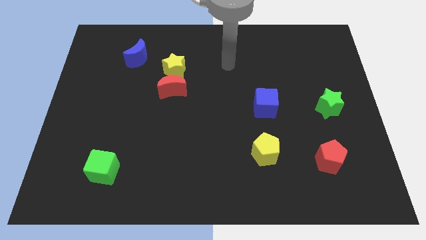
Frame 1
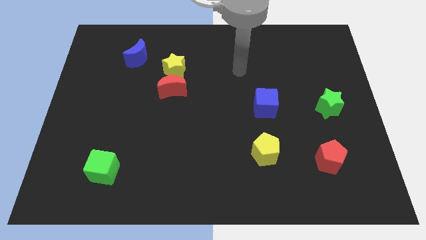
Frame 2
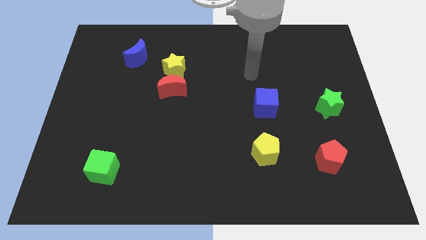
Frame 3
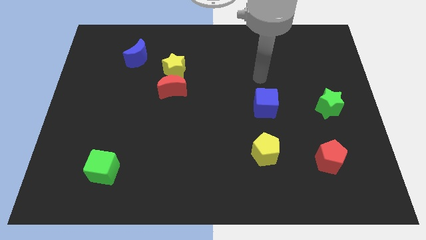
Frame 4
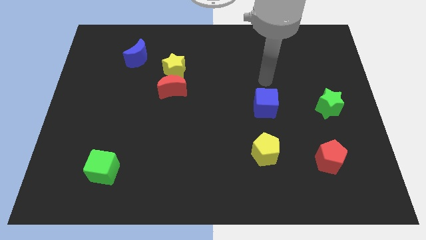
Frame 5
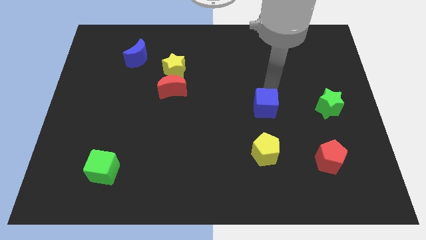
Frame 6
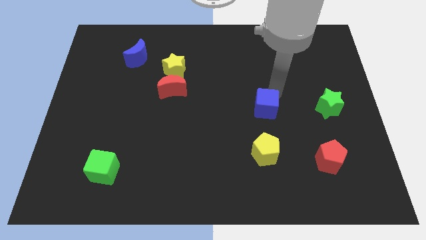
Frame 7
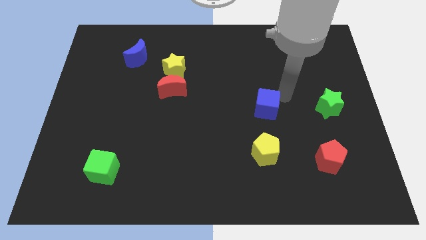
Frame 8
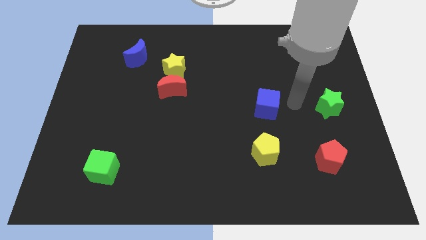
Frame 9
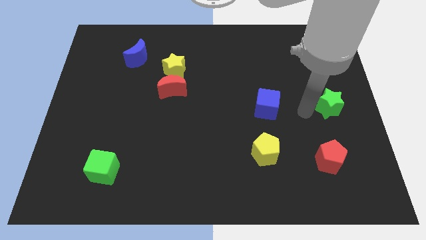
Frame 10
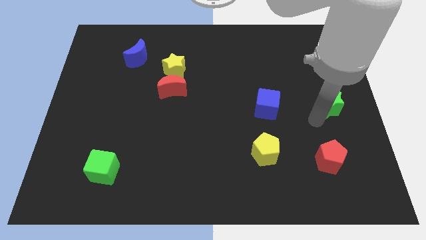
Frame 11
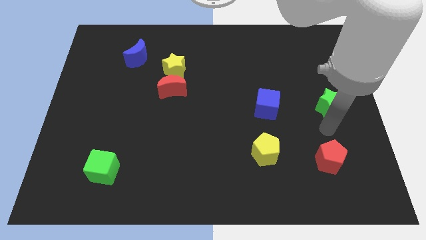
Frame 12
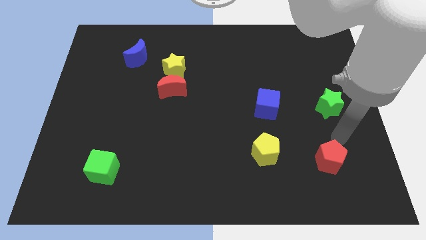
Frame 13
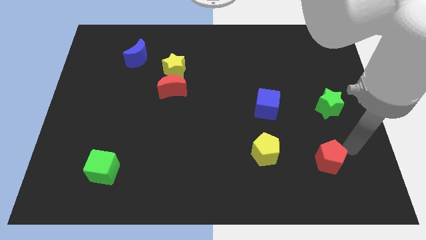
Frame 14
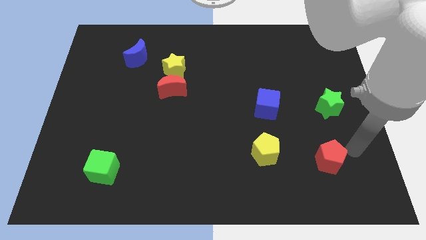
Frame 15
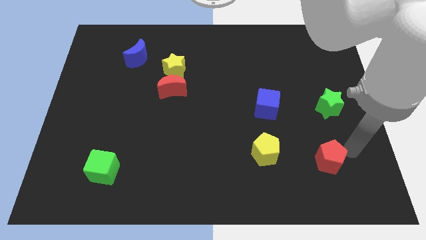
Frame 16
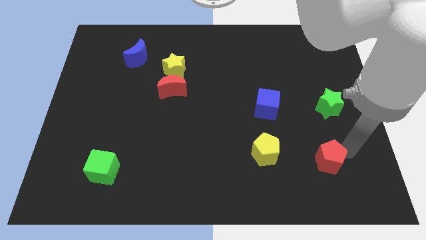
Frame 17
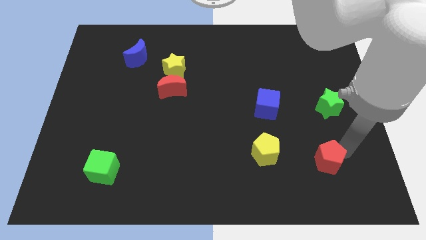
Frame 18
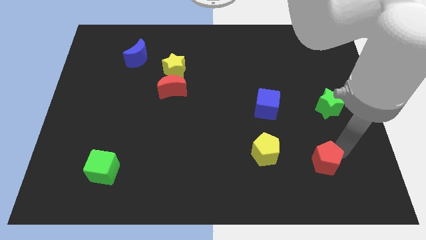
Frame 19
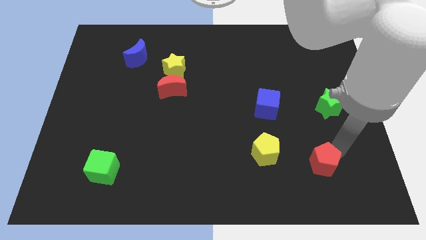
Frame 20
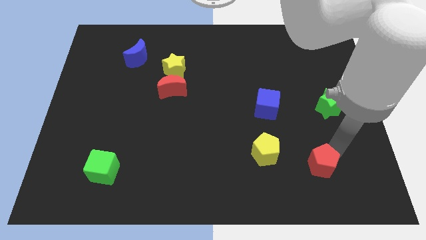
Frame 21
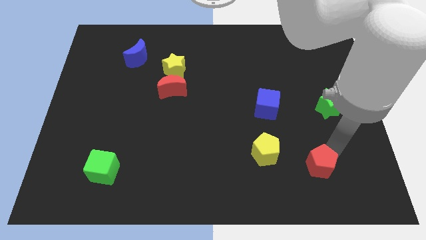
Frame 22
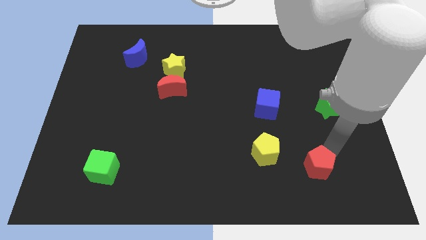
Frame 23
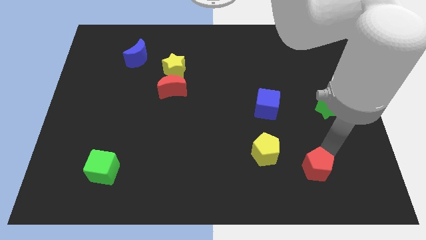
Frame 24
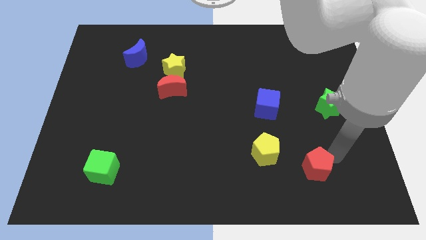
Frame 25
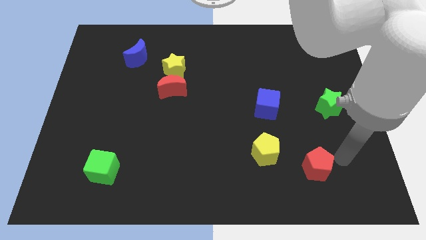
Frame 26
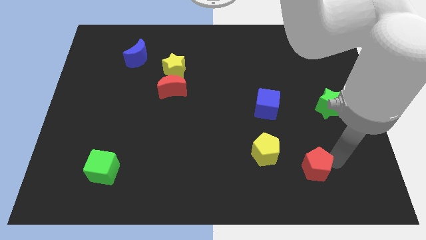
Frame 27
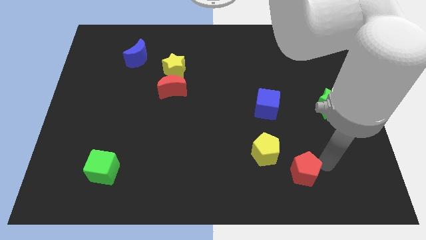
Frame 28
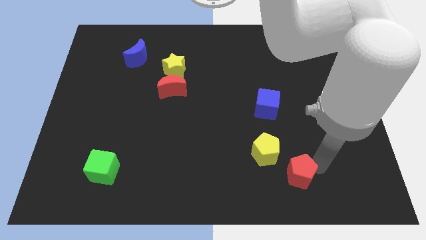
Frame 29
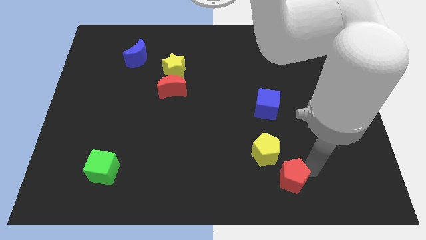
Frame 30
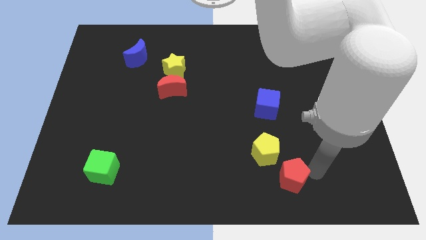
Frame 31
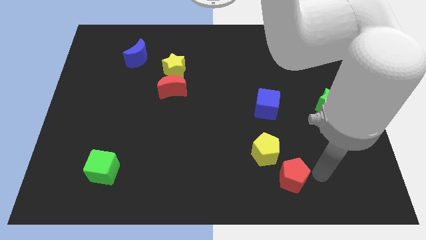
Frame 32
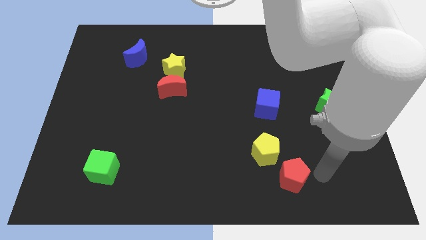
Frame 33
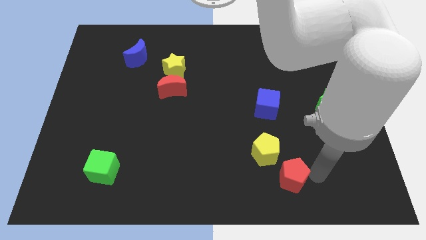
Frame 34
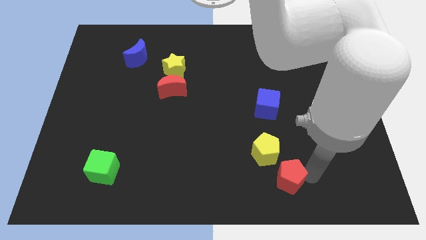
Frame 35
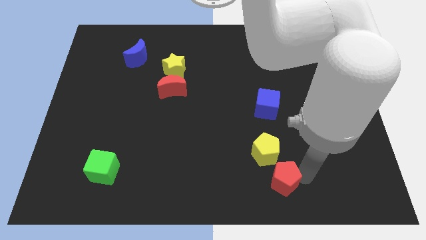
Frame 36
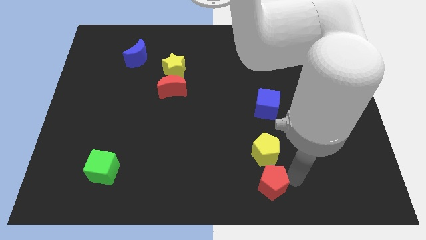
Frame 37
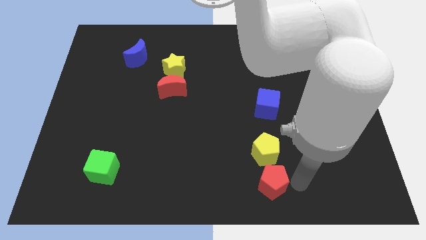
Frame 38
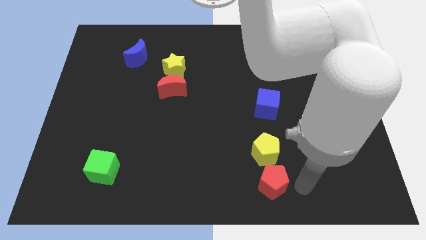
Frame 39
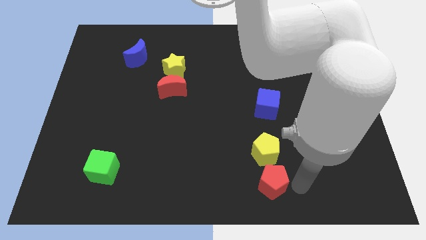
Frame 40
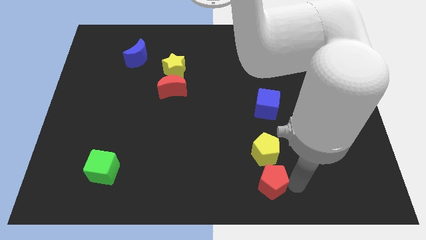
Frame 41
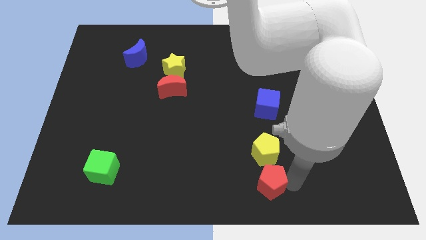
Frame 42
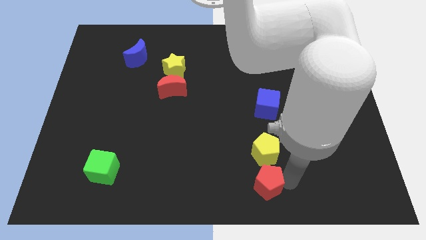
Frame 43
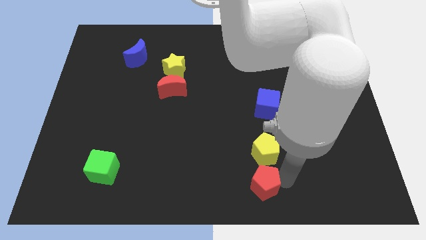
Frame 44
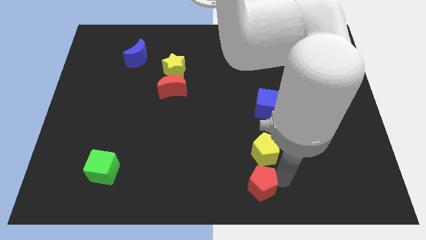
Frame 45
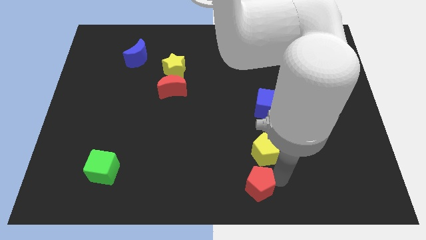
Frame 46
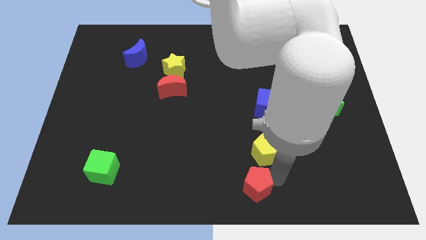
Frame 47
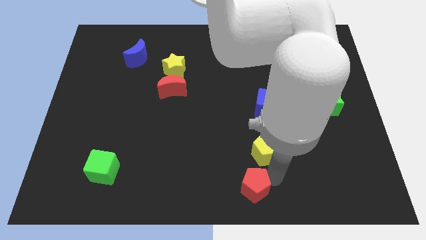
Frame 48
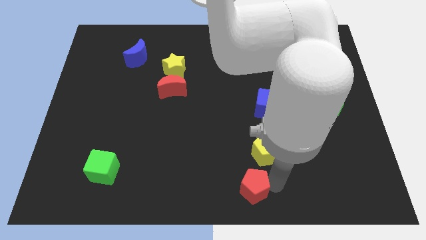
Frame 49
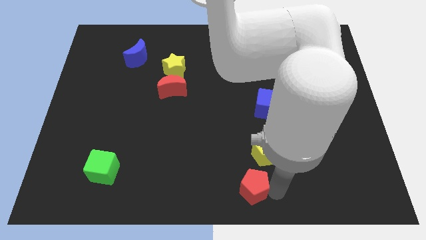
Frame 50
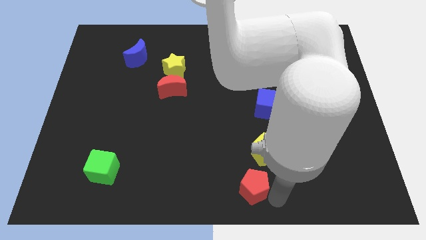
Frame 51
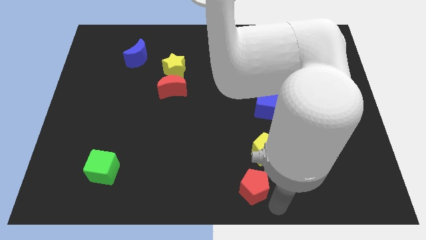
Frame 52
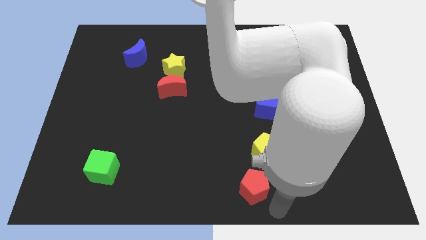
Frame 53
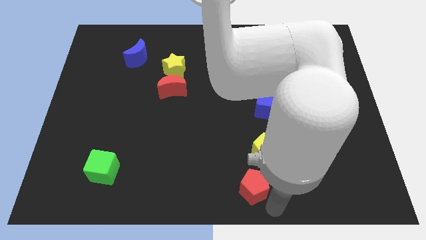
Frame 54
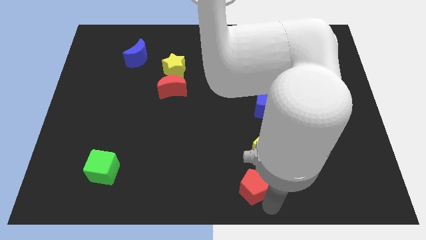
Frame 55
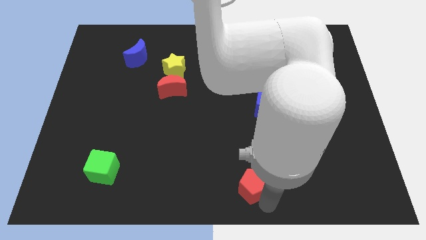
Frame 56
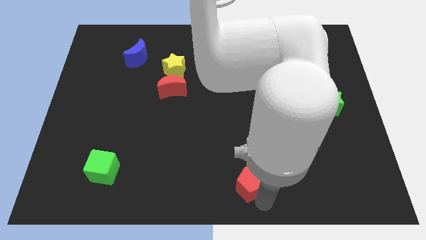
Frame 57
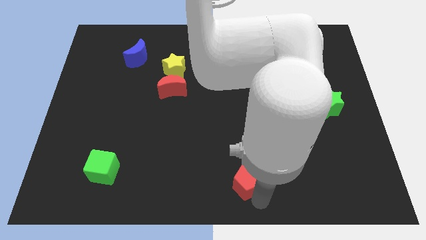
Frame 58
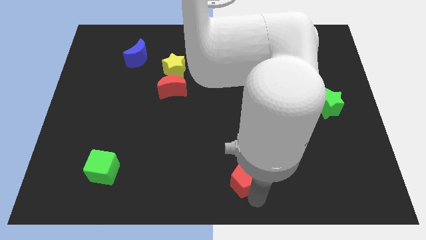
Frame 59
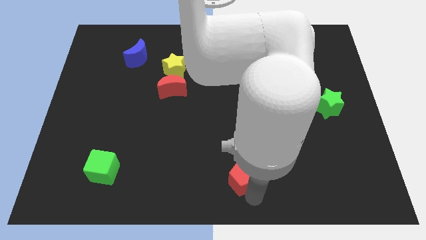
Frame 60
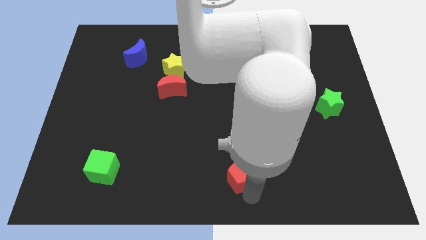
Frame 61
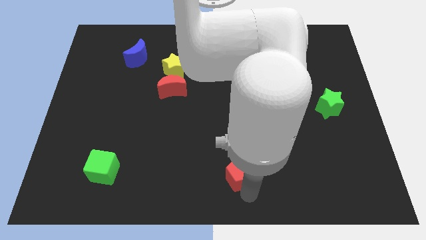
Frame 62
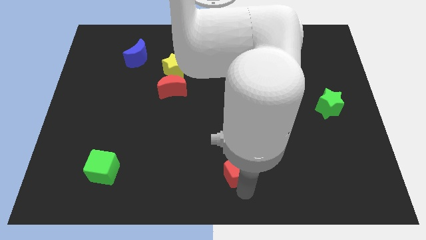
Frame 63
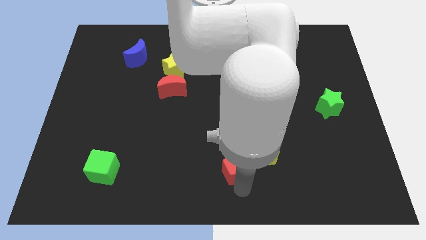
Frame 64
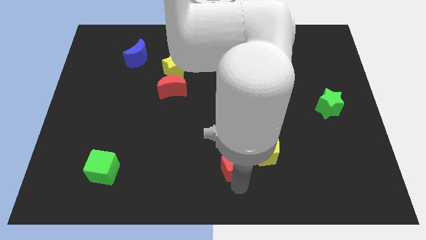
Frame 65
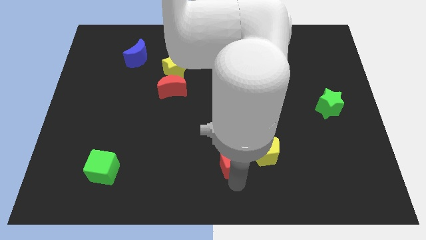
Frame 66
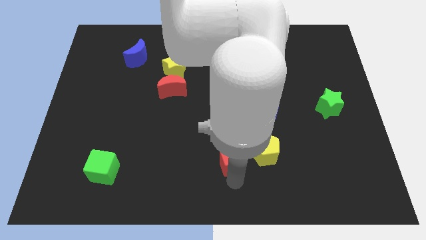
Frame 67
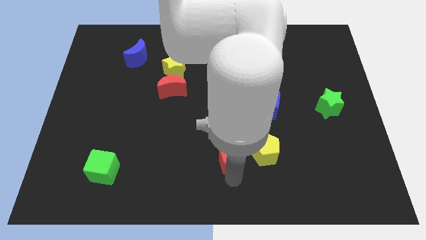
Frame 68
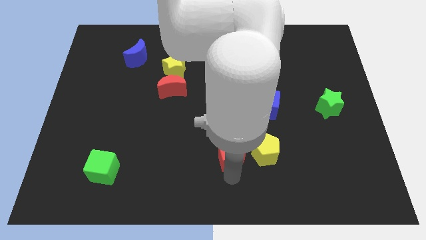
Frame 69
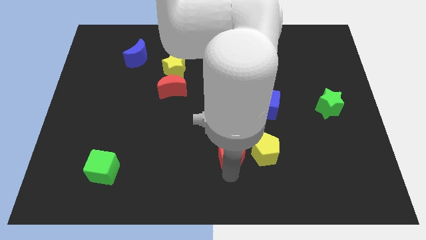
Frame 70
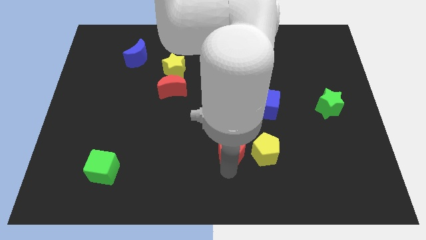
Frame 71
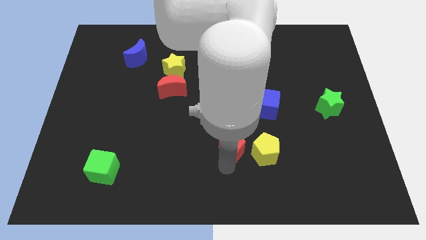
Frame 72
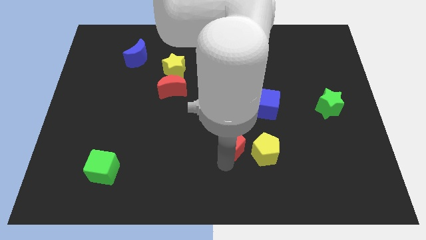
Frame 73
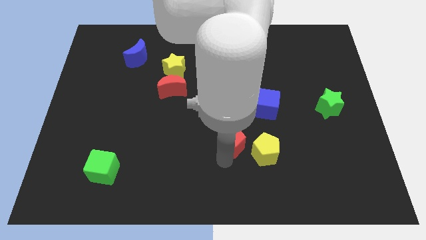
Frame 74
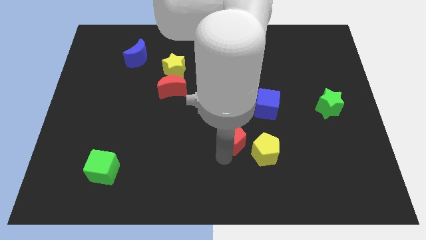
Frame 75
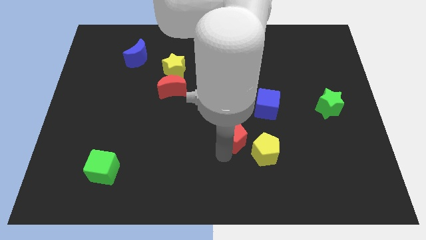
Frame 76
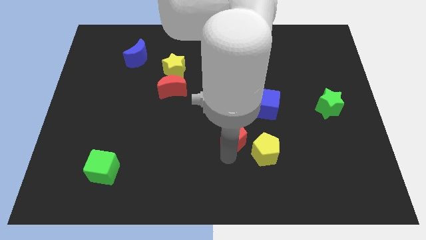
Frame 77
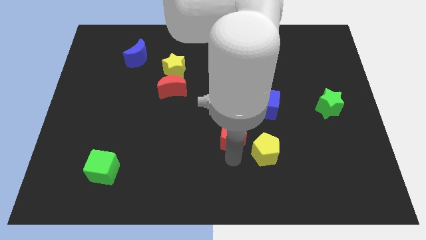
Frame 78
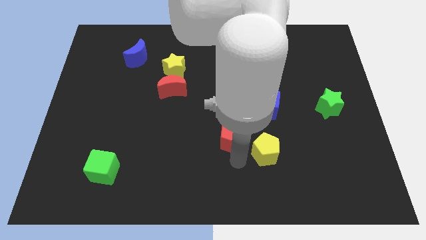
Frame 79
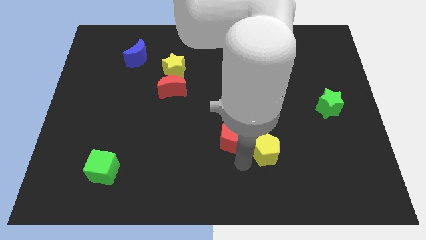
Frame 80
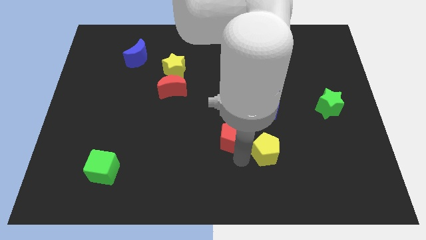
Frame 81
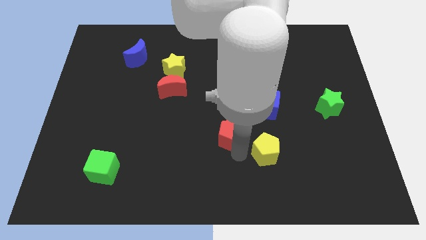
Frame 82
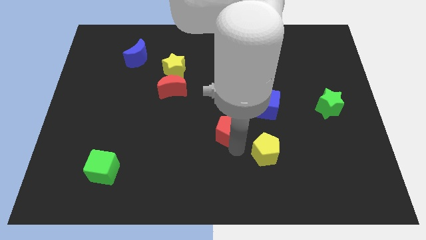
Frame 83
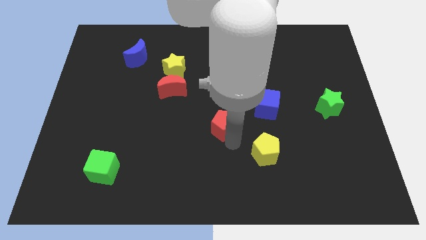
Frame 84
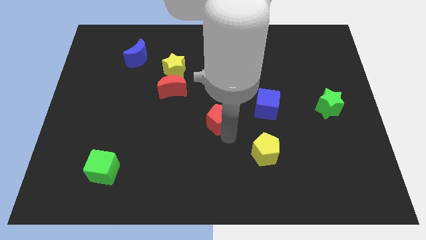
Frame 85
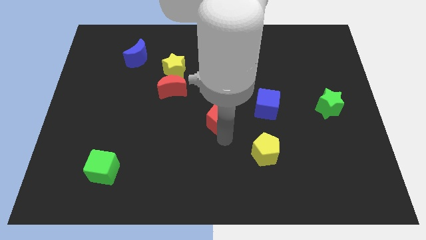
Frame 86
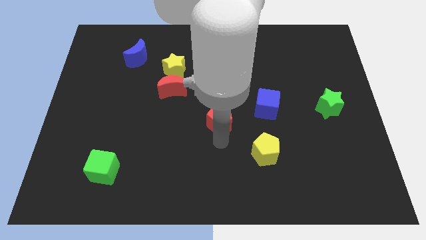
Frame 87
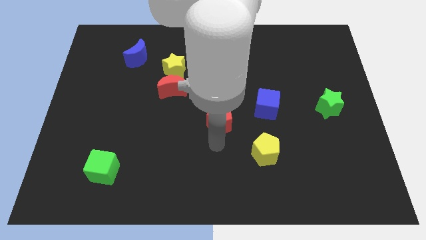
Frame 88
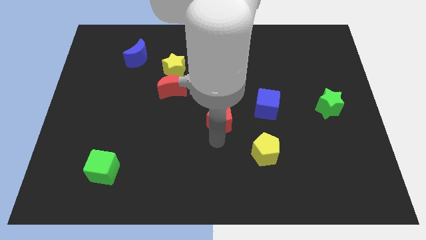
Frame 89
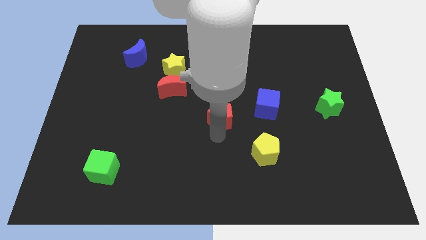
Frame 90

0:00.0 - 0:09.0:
move the red pentagon diagonally upwards and to the left
